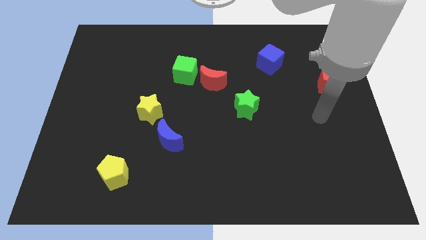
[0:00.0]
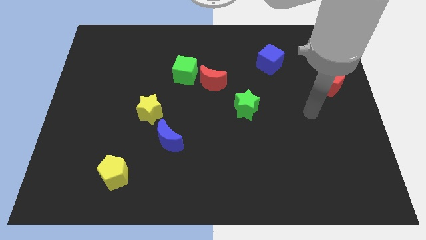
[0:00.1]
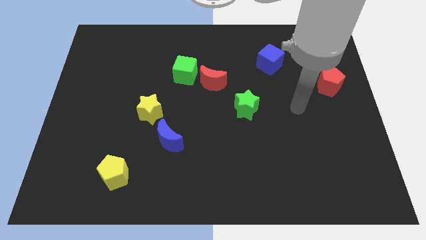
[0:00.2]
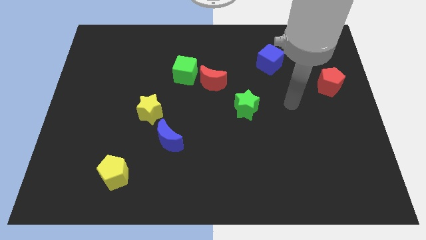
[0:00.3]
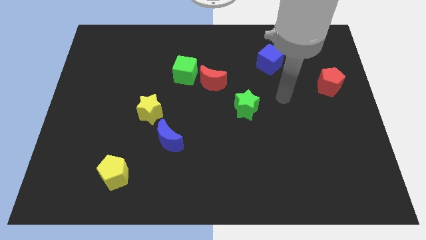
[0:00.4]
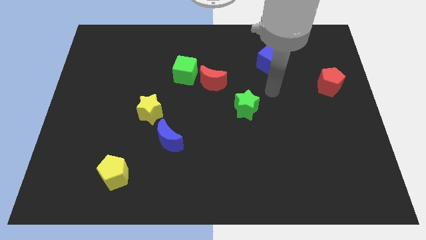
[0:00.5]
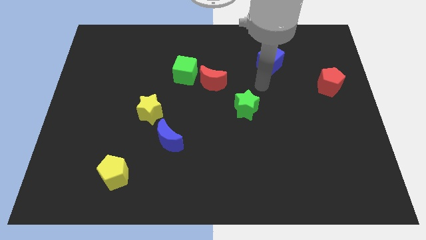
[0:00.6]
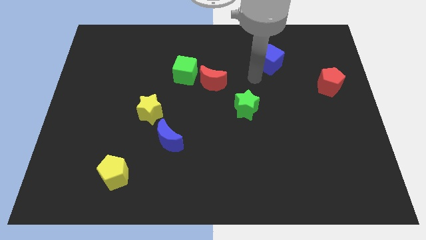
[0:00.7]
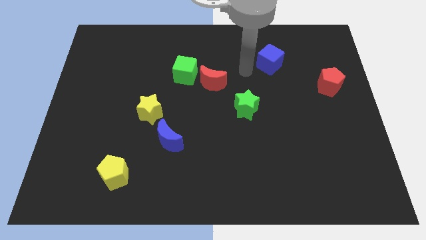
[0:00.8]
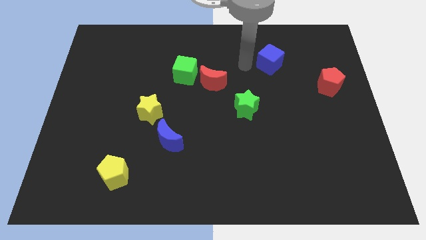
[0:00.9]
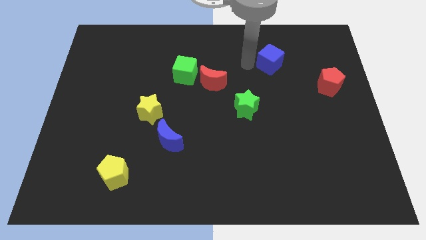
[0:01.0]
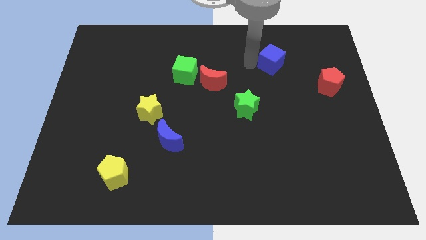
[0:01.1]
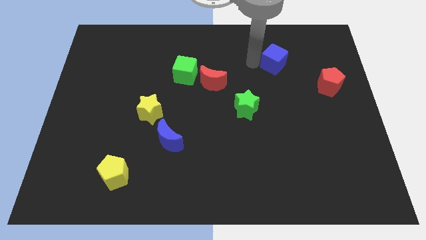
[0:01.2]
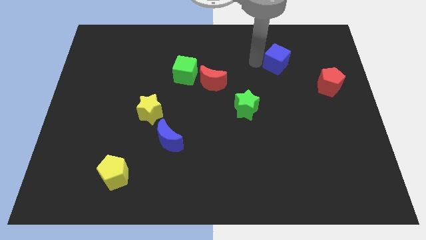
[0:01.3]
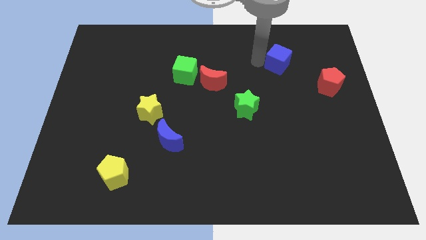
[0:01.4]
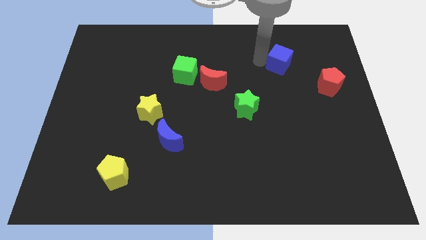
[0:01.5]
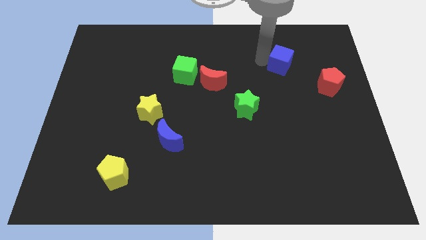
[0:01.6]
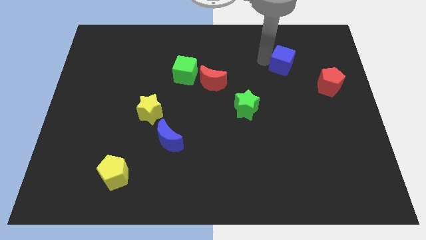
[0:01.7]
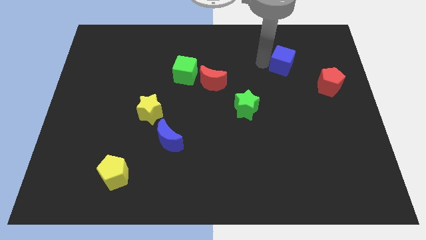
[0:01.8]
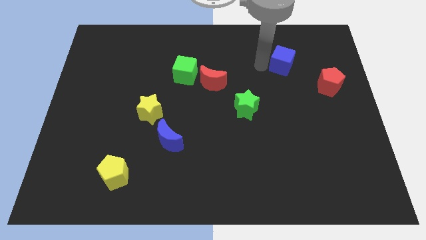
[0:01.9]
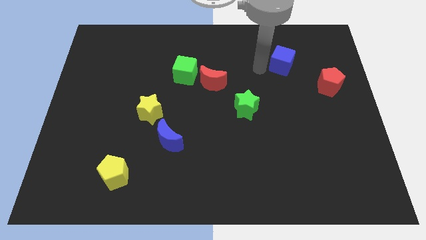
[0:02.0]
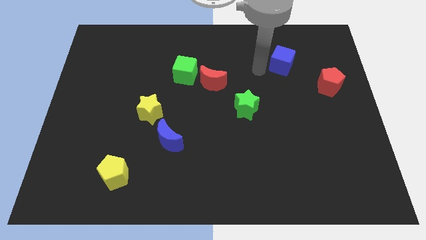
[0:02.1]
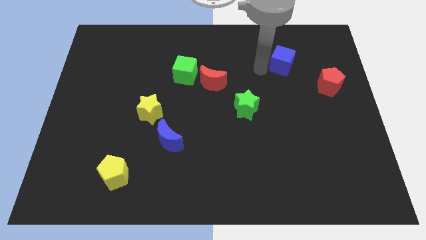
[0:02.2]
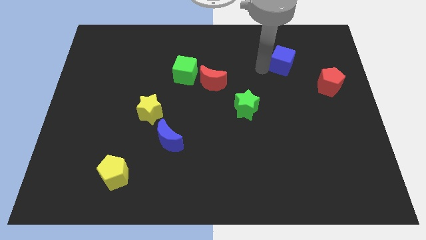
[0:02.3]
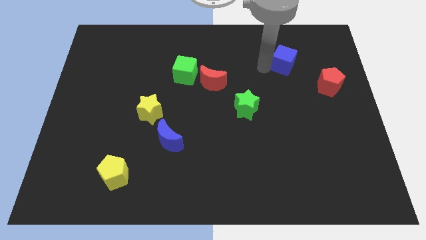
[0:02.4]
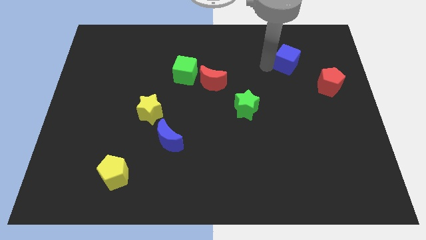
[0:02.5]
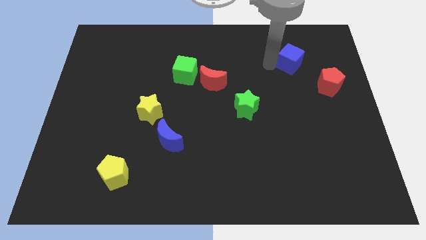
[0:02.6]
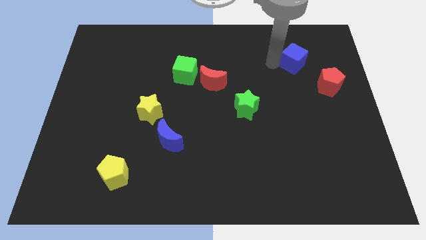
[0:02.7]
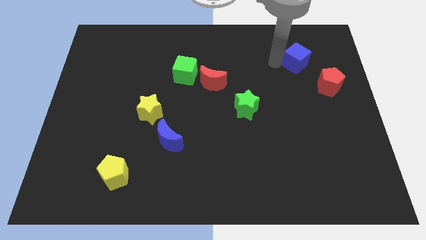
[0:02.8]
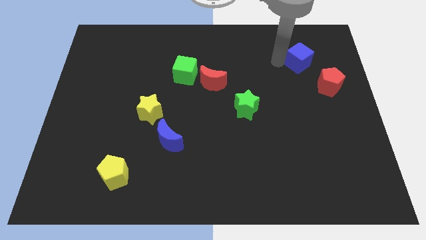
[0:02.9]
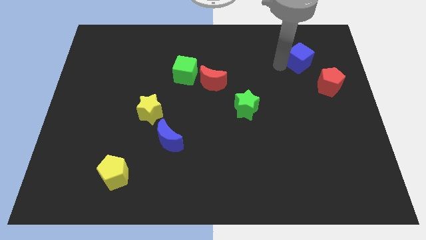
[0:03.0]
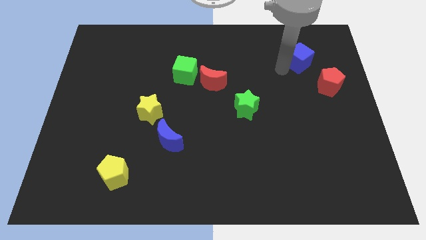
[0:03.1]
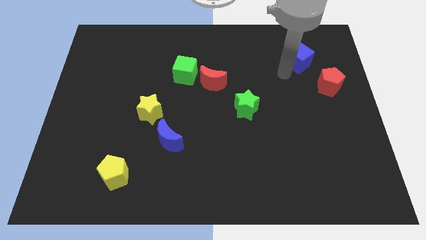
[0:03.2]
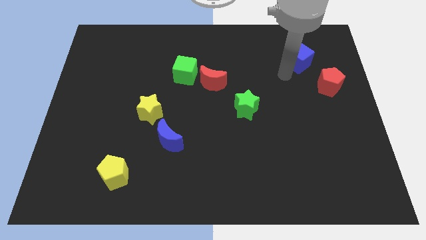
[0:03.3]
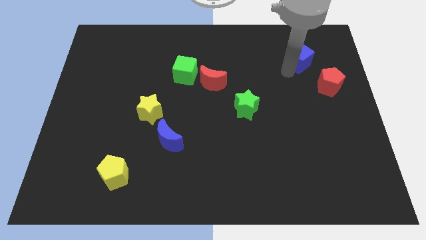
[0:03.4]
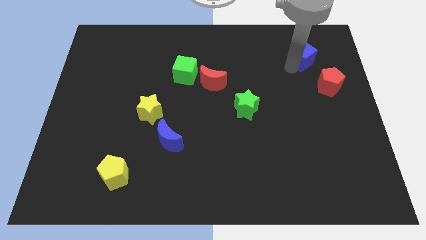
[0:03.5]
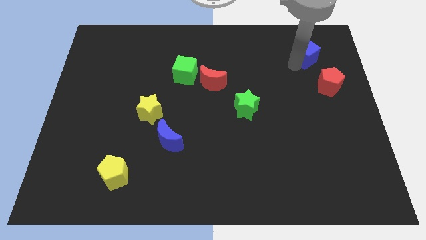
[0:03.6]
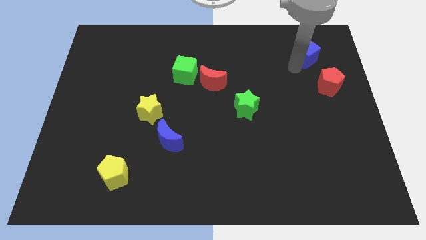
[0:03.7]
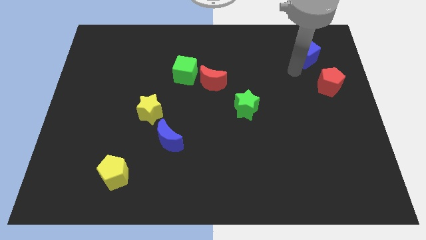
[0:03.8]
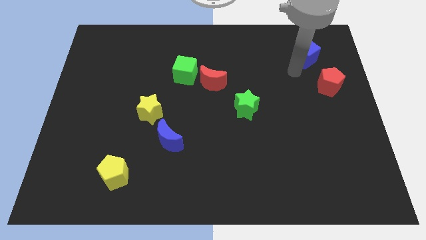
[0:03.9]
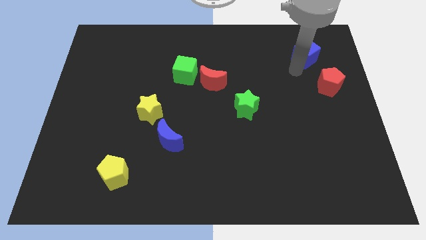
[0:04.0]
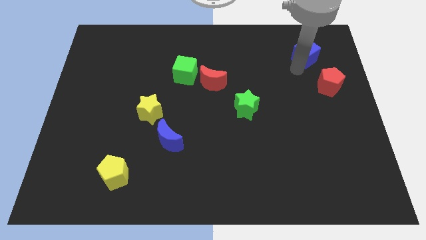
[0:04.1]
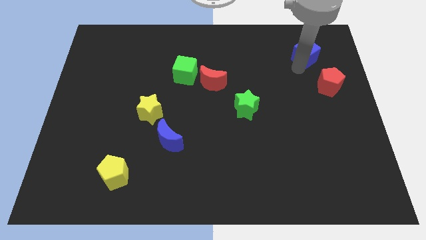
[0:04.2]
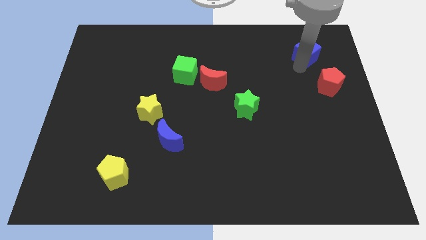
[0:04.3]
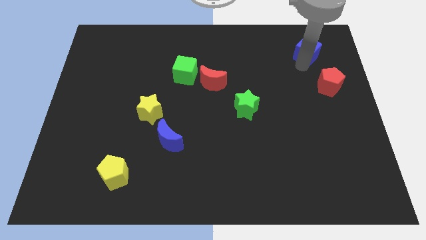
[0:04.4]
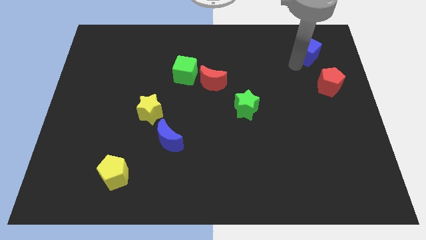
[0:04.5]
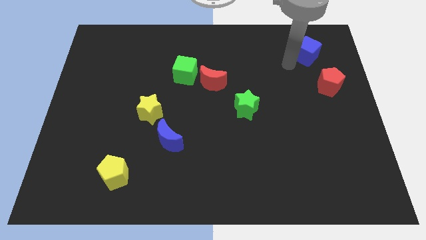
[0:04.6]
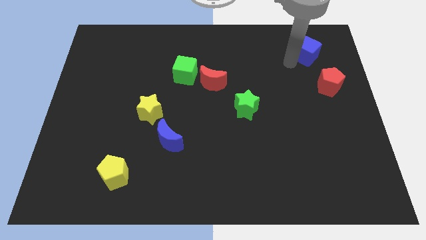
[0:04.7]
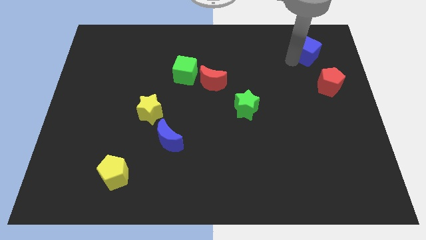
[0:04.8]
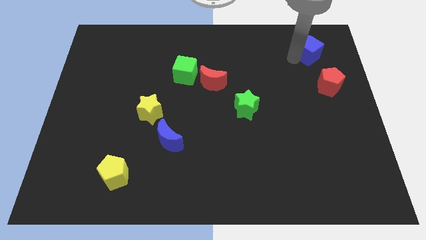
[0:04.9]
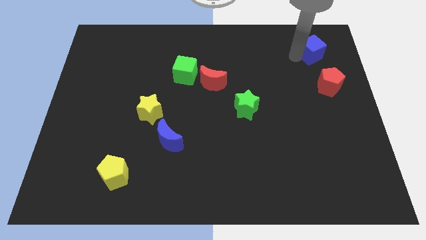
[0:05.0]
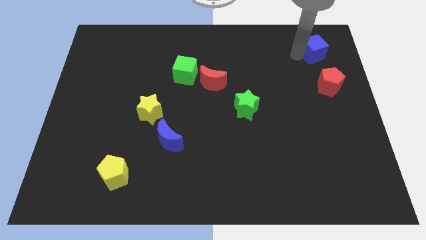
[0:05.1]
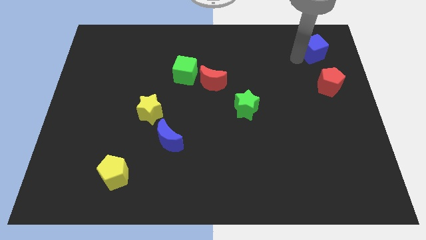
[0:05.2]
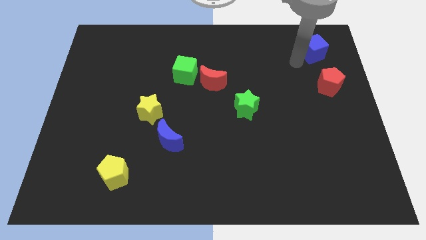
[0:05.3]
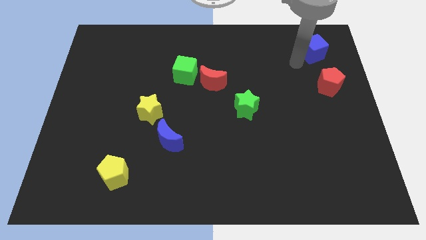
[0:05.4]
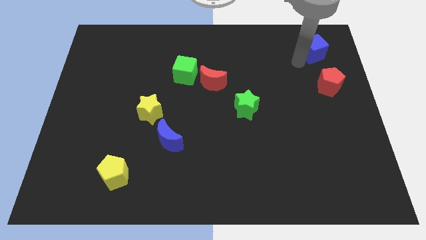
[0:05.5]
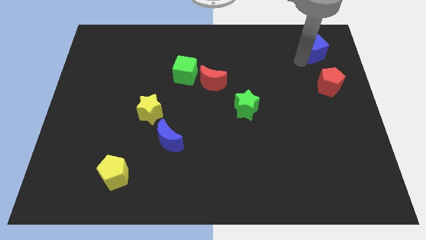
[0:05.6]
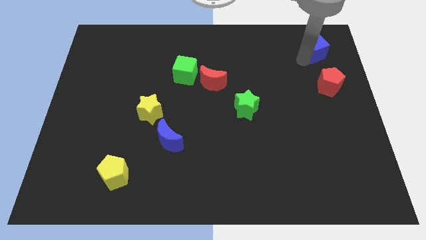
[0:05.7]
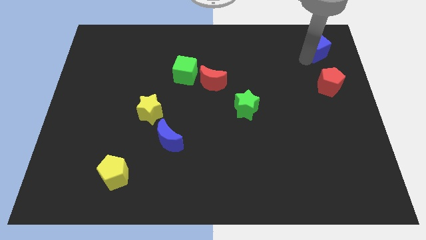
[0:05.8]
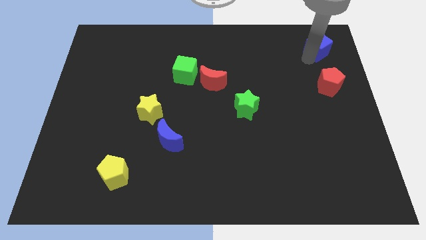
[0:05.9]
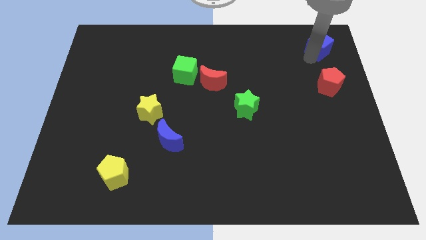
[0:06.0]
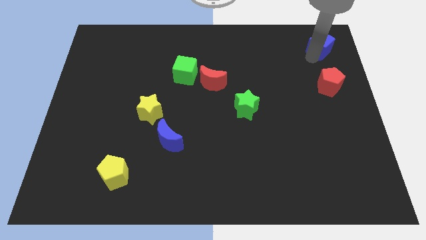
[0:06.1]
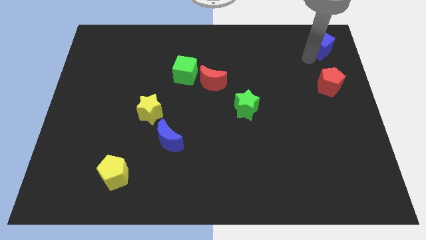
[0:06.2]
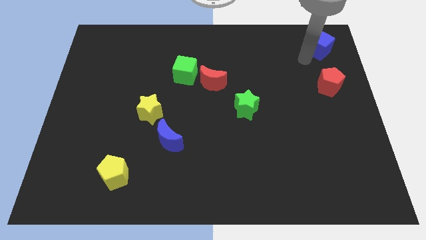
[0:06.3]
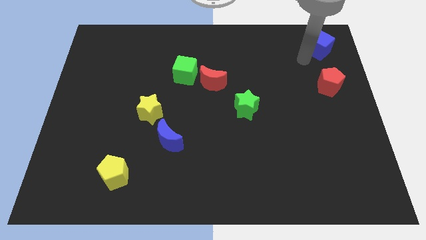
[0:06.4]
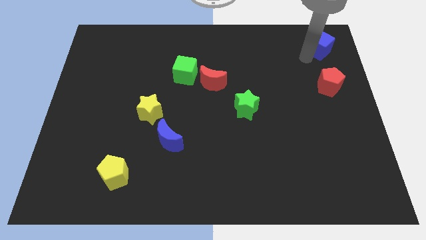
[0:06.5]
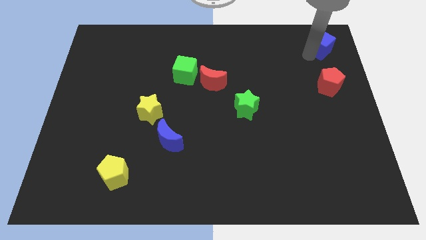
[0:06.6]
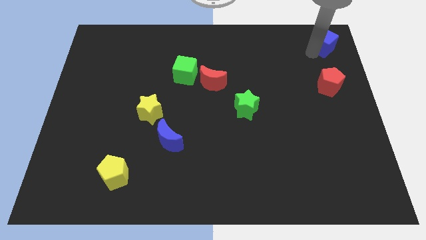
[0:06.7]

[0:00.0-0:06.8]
slide the blue cube to the top right corner
